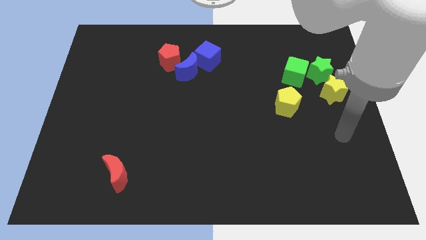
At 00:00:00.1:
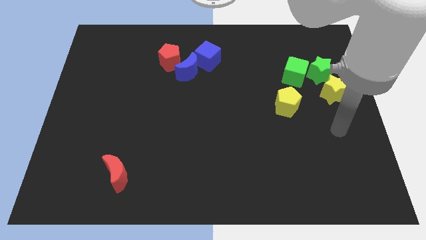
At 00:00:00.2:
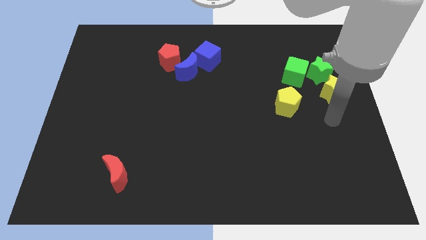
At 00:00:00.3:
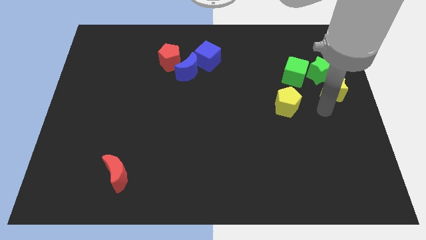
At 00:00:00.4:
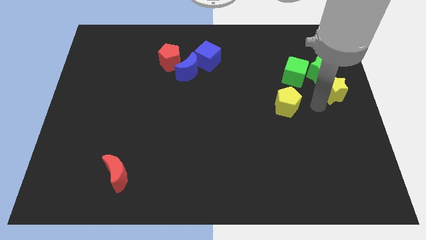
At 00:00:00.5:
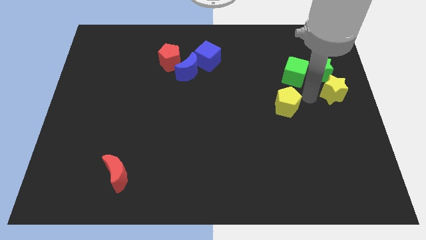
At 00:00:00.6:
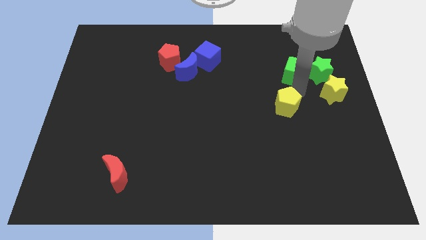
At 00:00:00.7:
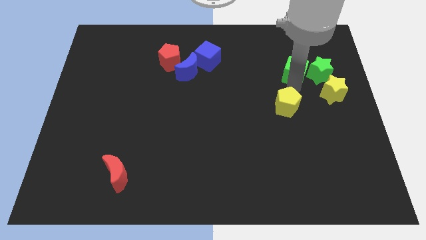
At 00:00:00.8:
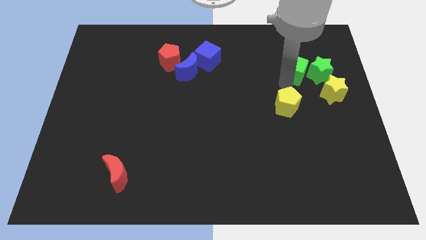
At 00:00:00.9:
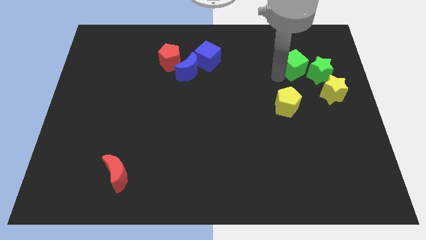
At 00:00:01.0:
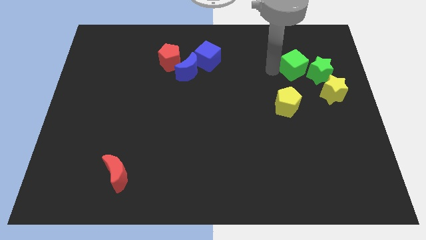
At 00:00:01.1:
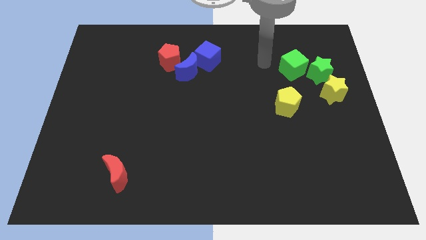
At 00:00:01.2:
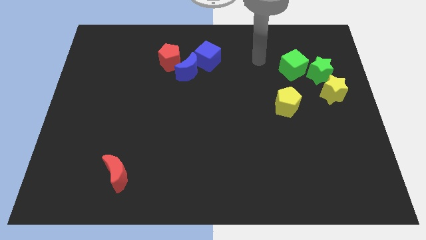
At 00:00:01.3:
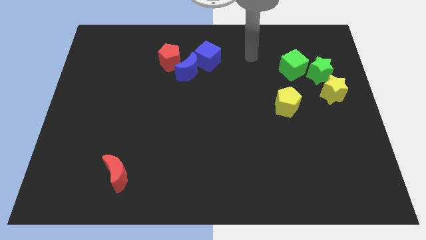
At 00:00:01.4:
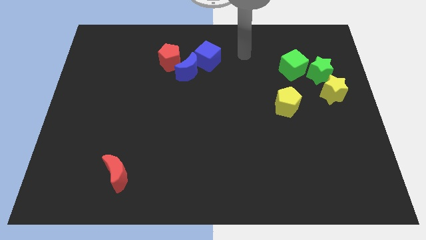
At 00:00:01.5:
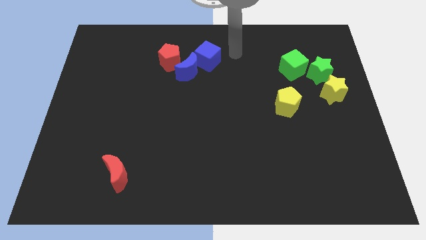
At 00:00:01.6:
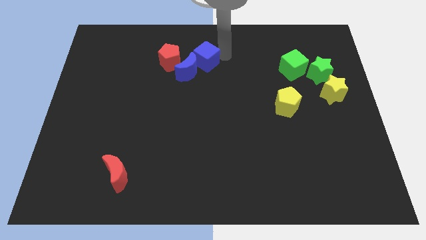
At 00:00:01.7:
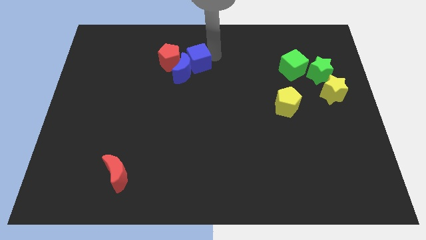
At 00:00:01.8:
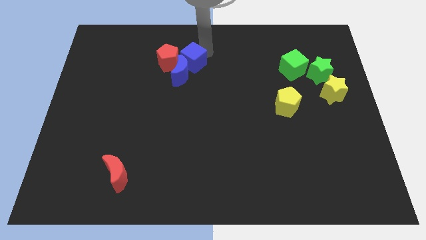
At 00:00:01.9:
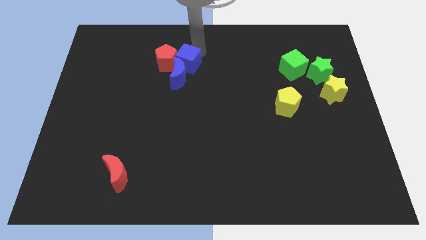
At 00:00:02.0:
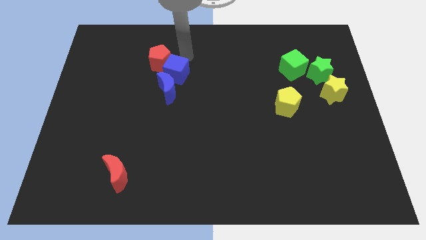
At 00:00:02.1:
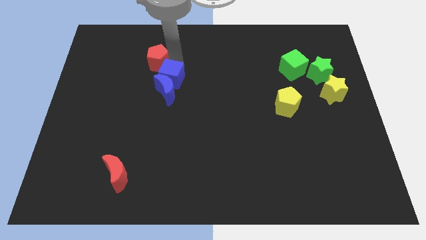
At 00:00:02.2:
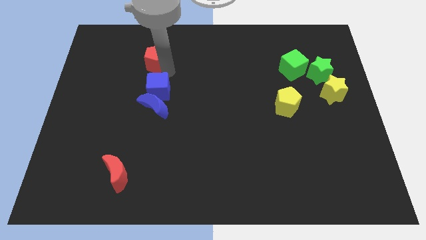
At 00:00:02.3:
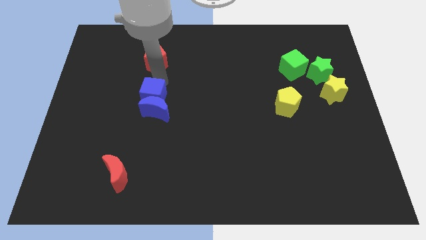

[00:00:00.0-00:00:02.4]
separate the blue moon from the red pentagon and blue cube

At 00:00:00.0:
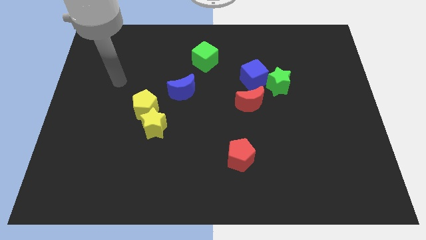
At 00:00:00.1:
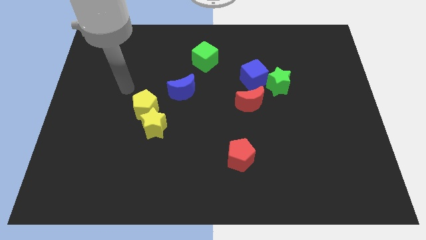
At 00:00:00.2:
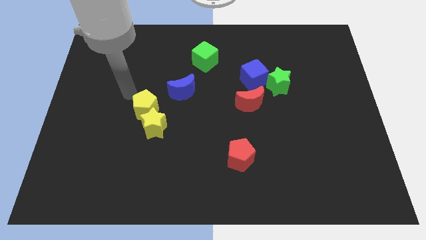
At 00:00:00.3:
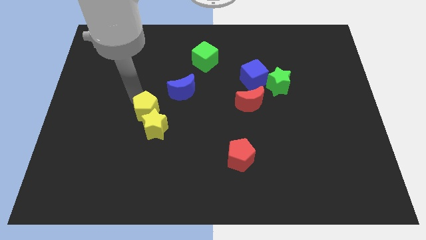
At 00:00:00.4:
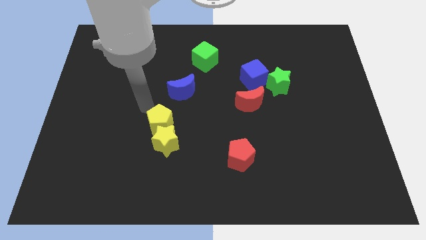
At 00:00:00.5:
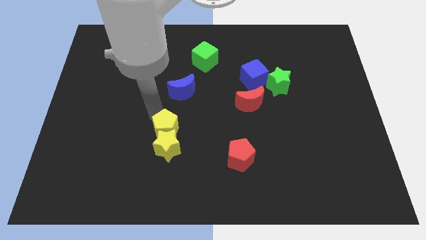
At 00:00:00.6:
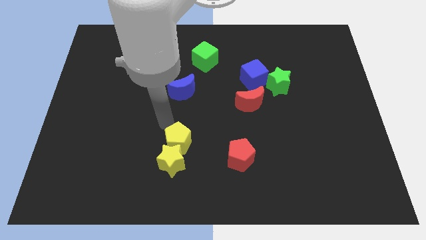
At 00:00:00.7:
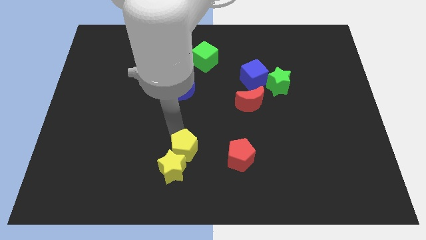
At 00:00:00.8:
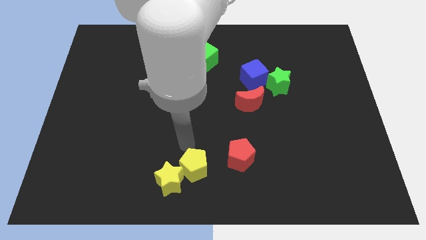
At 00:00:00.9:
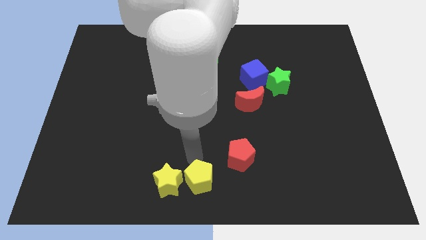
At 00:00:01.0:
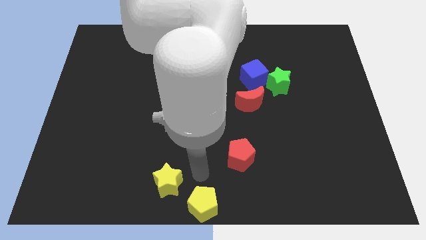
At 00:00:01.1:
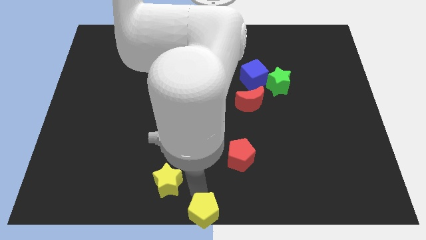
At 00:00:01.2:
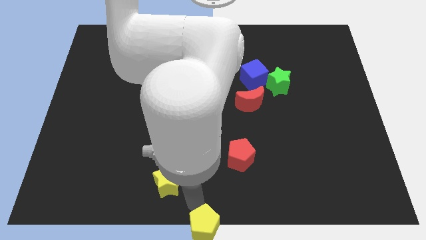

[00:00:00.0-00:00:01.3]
move the yellow star away from the yellow pentagon

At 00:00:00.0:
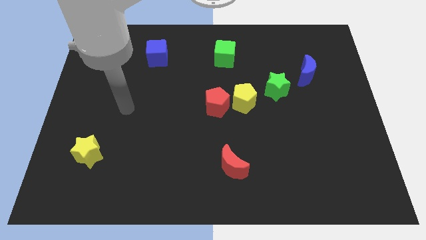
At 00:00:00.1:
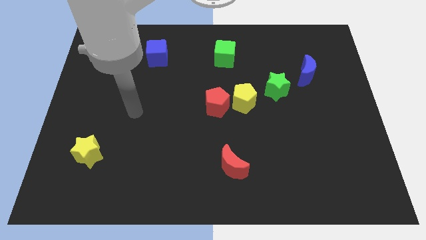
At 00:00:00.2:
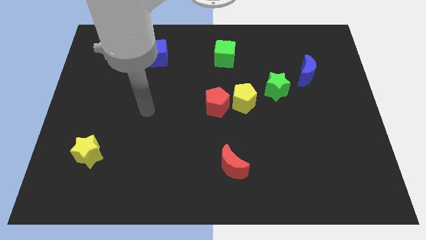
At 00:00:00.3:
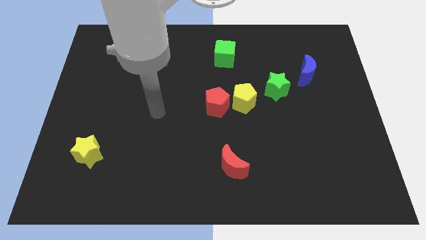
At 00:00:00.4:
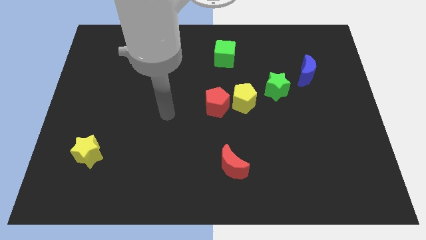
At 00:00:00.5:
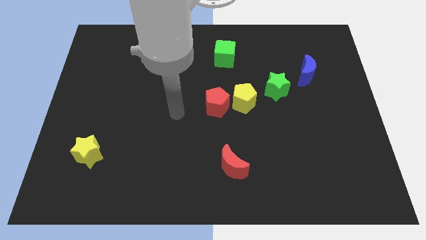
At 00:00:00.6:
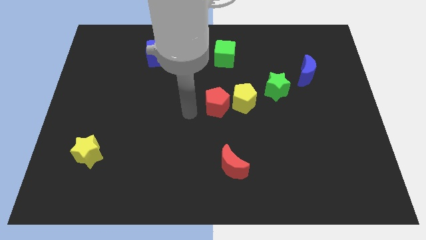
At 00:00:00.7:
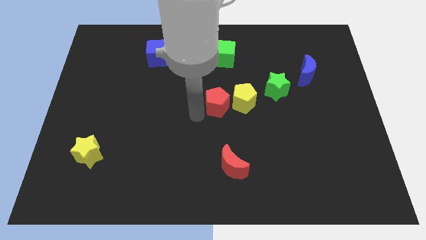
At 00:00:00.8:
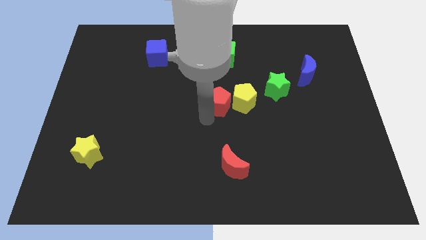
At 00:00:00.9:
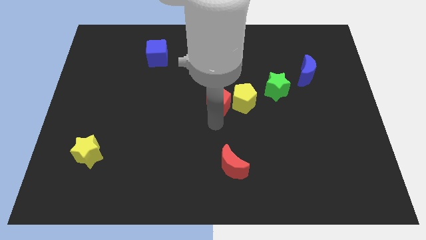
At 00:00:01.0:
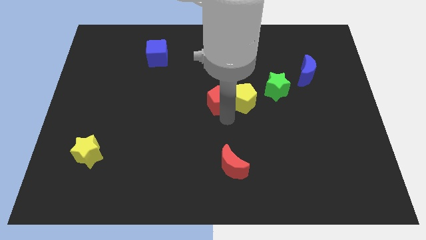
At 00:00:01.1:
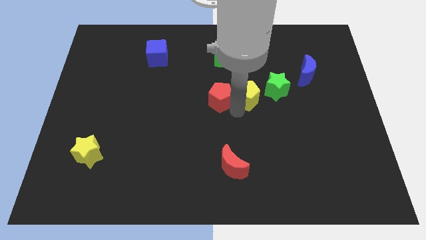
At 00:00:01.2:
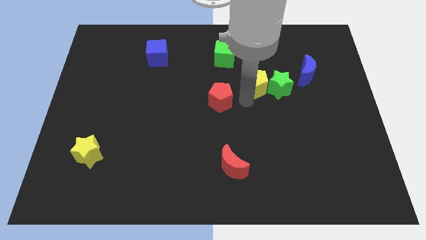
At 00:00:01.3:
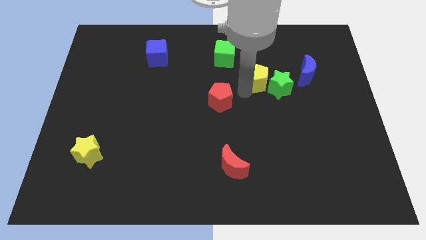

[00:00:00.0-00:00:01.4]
move the red pentagon away from the yellow pentagon

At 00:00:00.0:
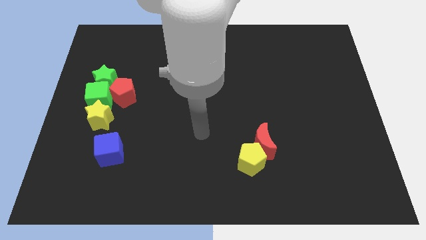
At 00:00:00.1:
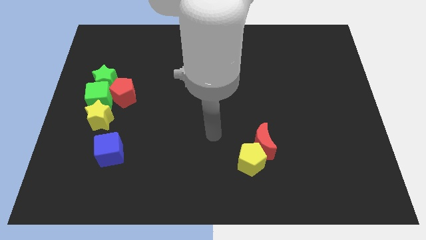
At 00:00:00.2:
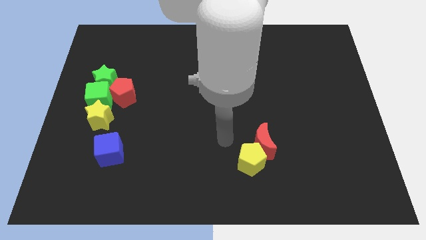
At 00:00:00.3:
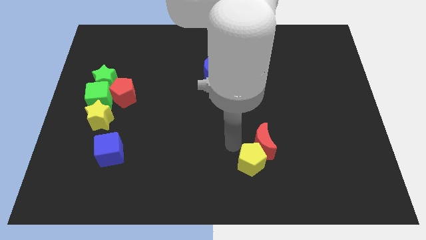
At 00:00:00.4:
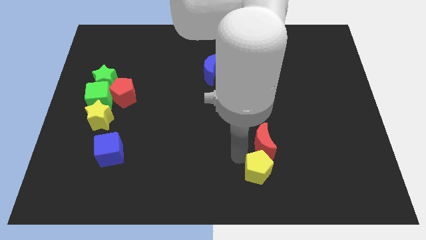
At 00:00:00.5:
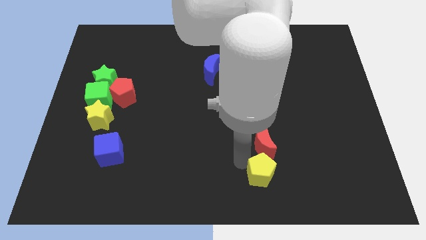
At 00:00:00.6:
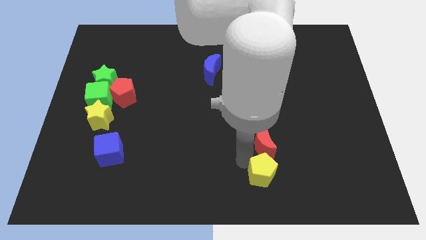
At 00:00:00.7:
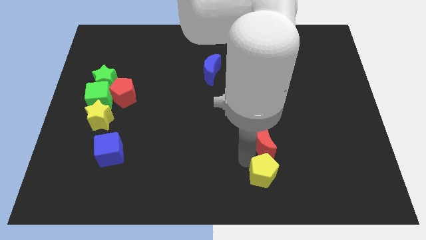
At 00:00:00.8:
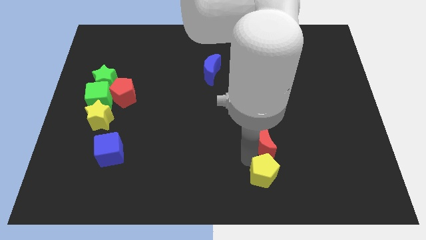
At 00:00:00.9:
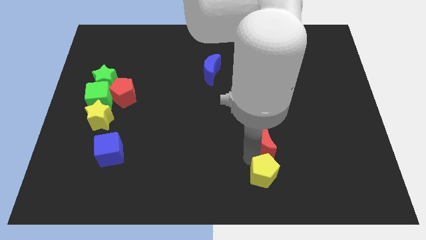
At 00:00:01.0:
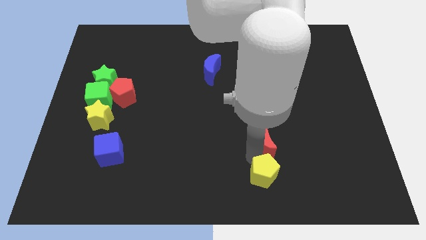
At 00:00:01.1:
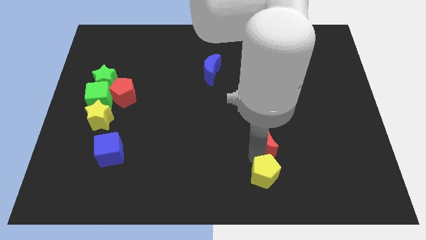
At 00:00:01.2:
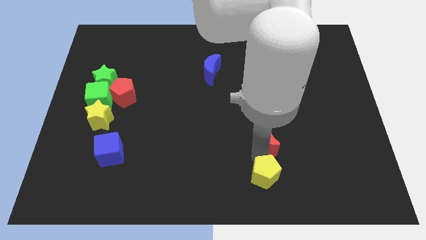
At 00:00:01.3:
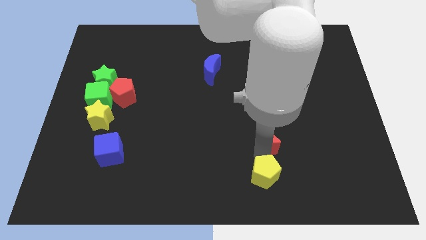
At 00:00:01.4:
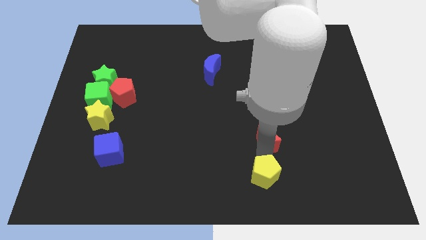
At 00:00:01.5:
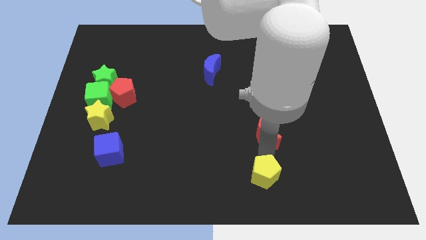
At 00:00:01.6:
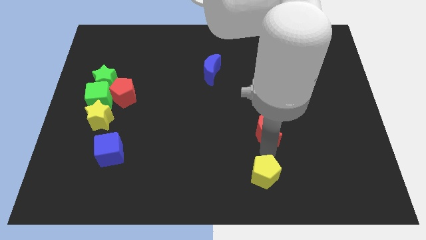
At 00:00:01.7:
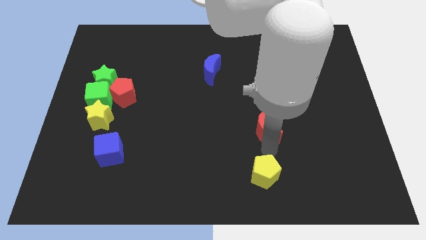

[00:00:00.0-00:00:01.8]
pull the red moon apart from the yellow pentagon

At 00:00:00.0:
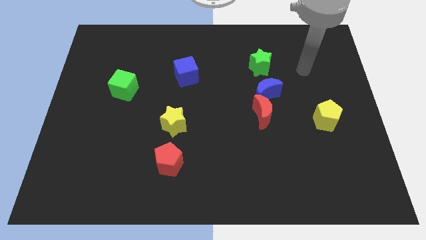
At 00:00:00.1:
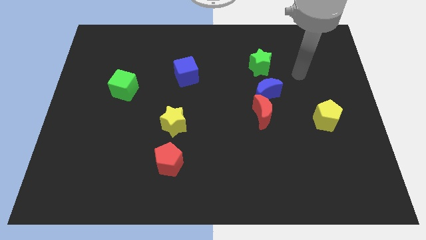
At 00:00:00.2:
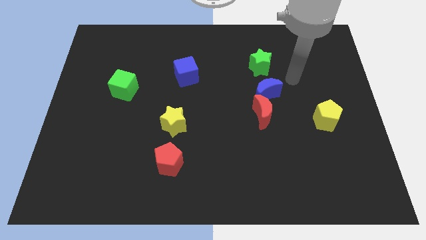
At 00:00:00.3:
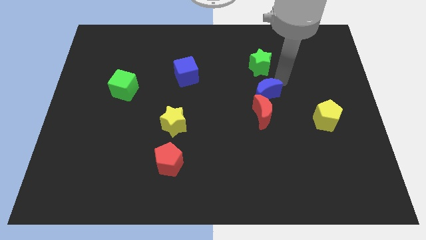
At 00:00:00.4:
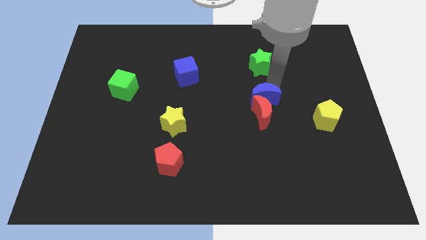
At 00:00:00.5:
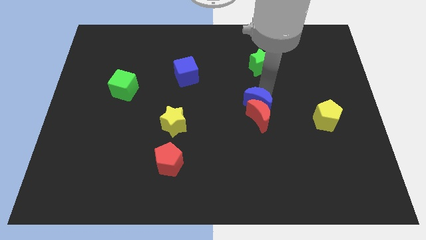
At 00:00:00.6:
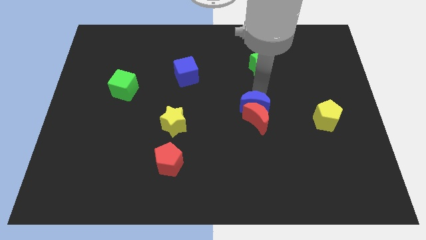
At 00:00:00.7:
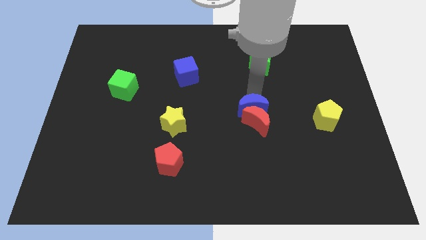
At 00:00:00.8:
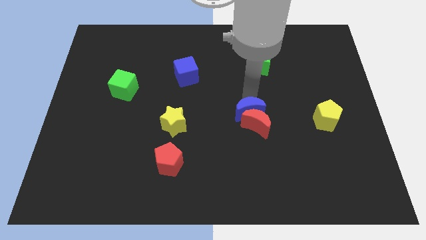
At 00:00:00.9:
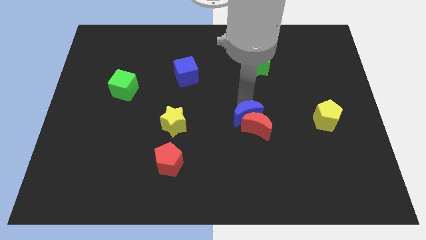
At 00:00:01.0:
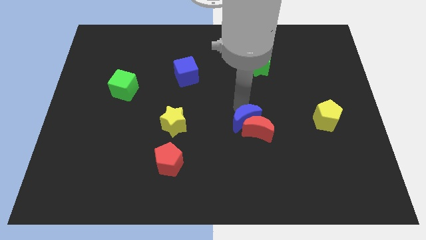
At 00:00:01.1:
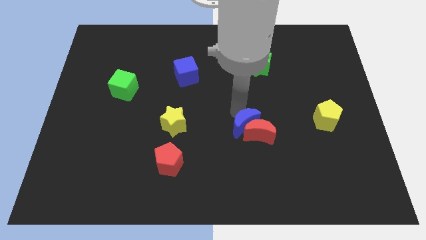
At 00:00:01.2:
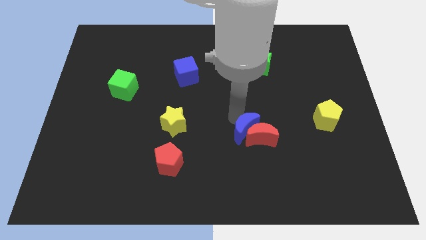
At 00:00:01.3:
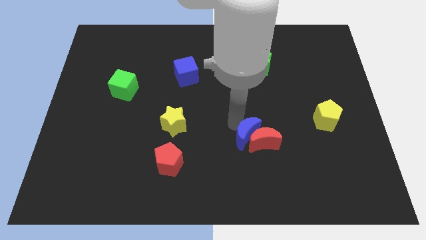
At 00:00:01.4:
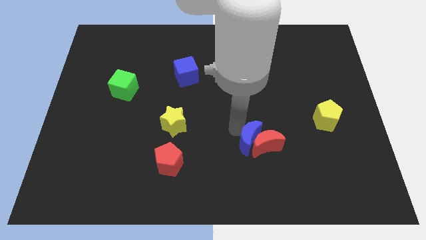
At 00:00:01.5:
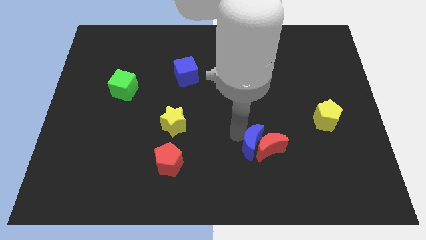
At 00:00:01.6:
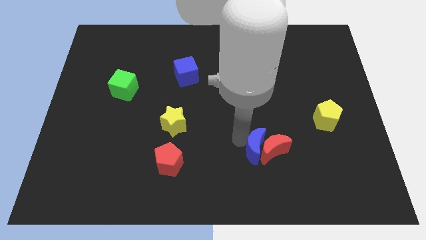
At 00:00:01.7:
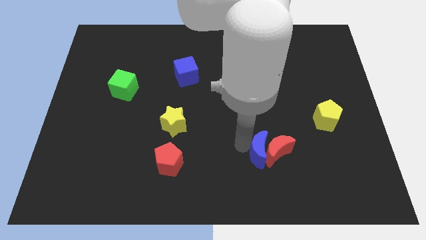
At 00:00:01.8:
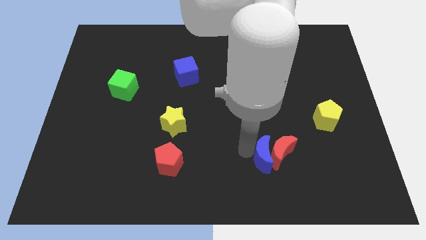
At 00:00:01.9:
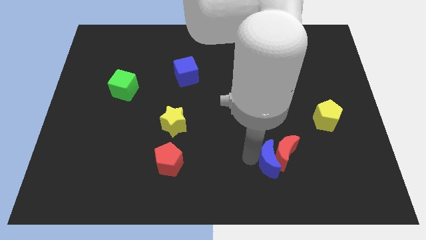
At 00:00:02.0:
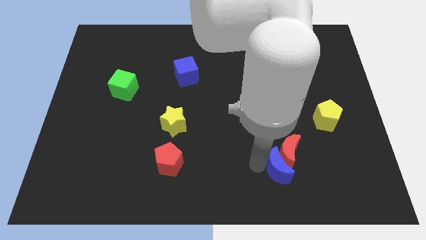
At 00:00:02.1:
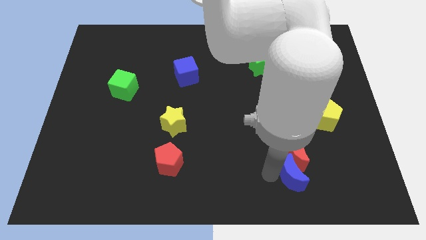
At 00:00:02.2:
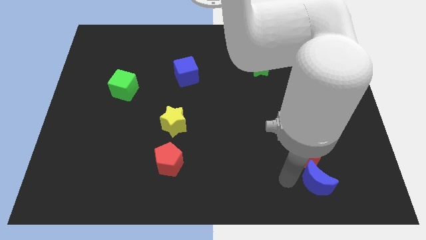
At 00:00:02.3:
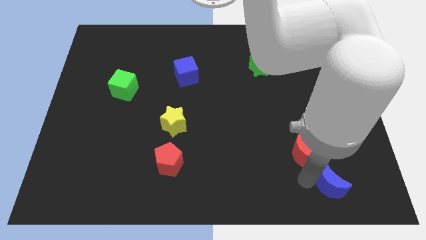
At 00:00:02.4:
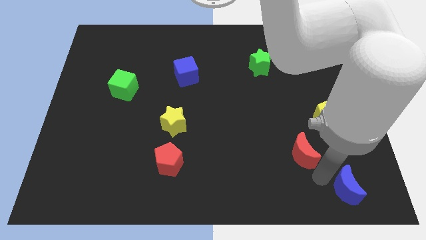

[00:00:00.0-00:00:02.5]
move the red moon away from the blue moon
